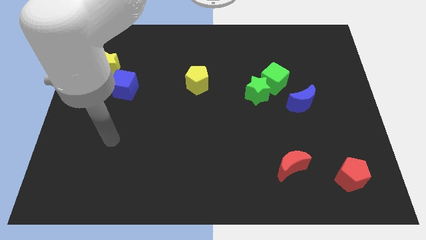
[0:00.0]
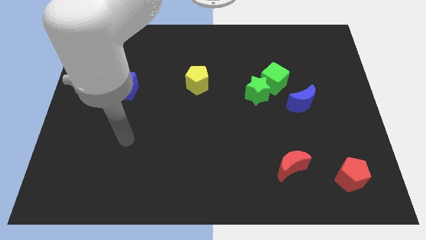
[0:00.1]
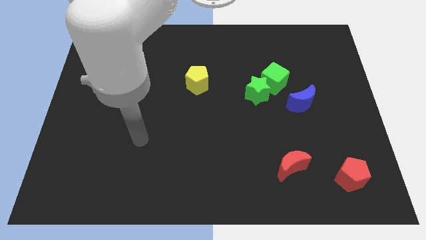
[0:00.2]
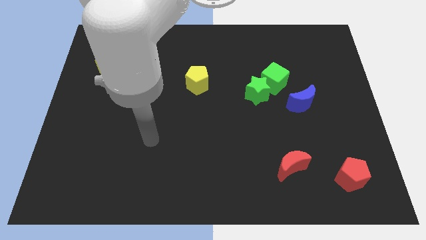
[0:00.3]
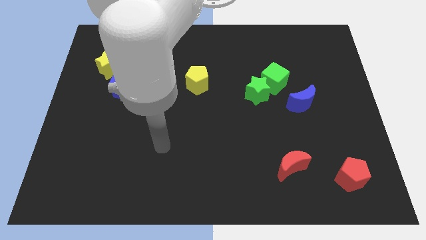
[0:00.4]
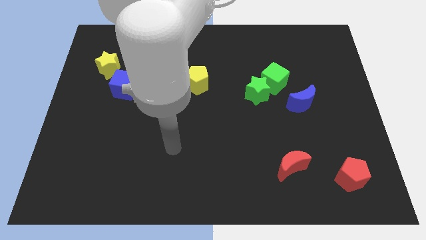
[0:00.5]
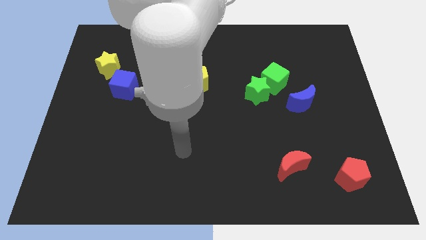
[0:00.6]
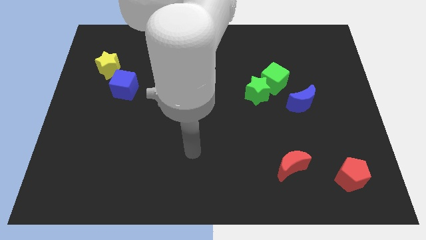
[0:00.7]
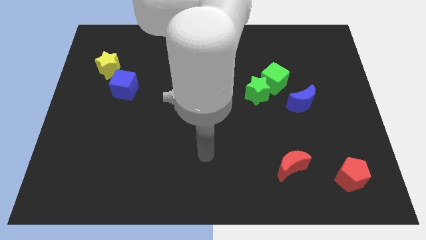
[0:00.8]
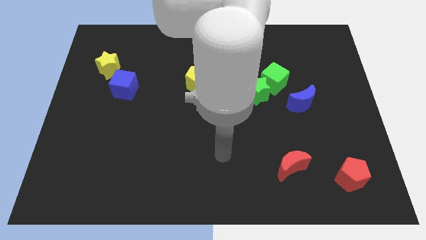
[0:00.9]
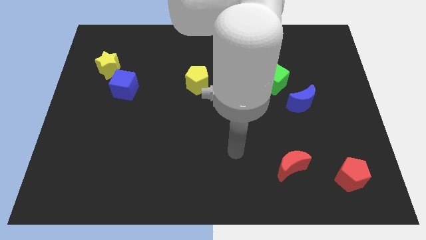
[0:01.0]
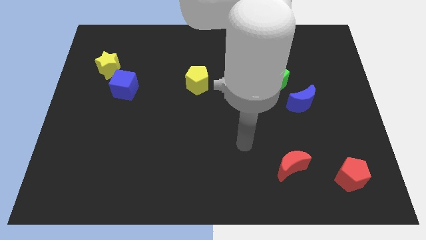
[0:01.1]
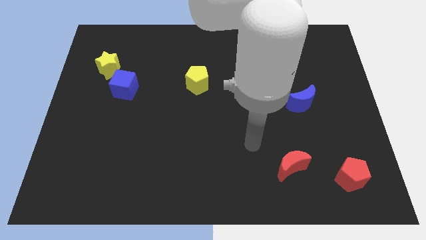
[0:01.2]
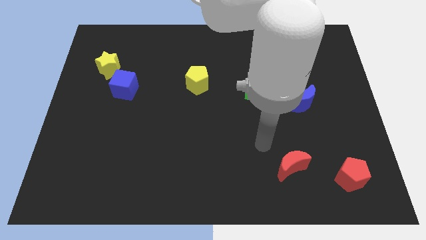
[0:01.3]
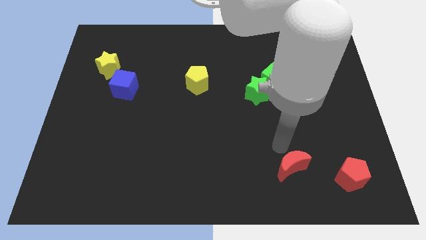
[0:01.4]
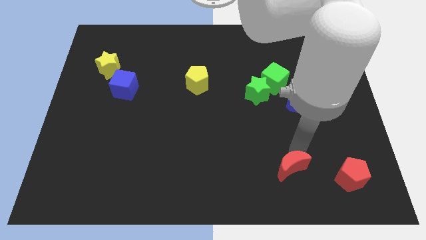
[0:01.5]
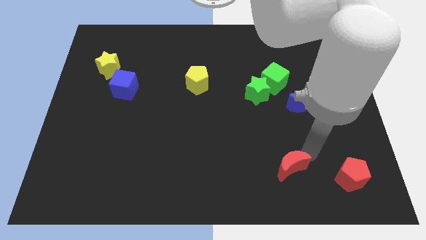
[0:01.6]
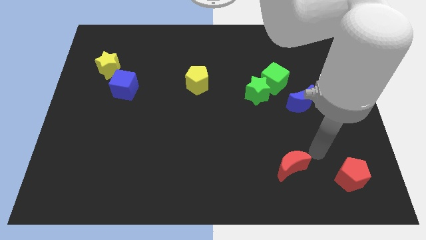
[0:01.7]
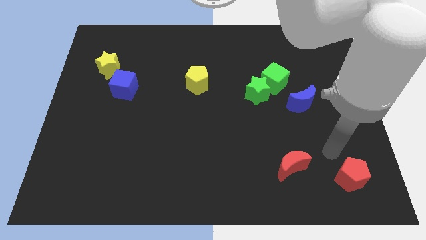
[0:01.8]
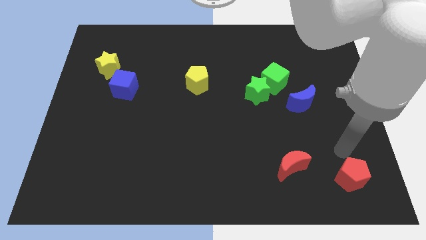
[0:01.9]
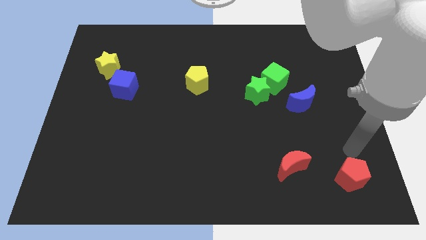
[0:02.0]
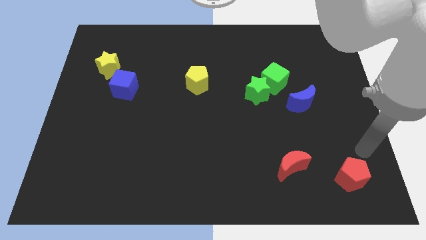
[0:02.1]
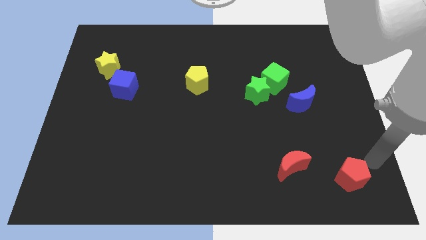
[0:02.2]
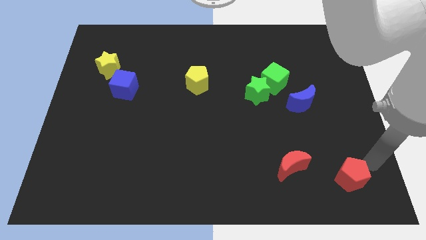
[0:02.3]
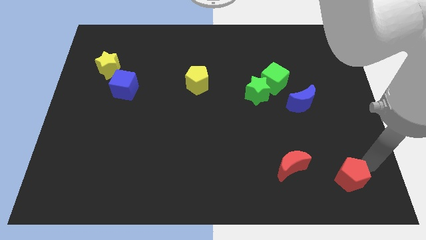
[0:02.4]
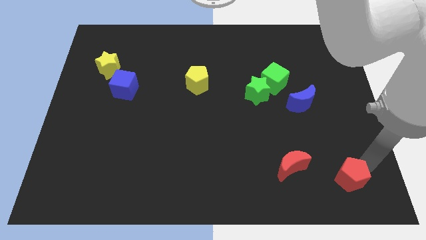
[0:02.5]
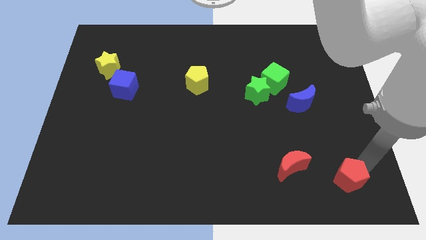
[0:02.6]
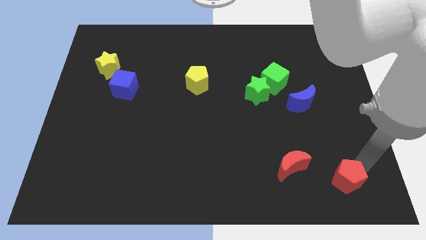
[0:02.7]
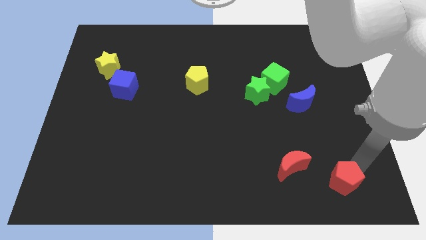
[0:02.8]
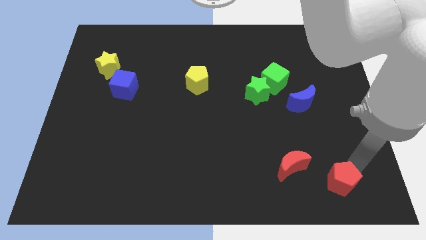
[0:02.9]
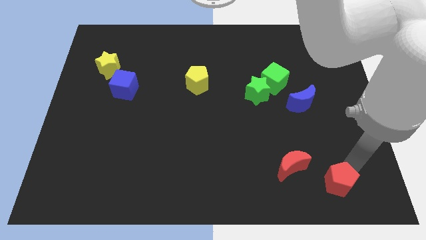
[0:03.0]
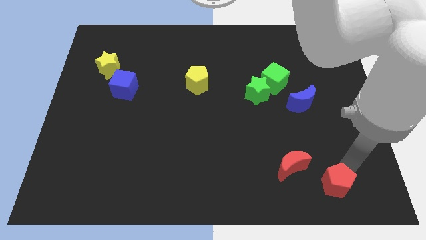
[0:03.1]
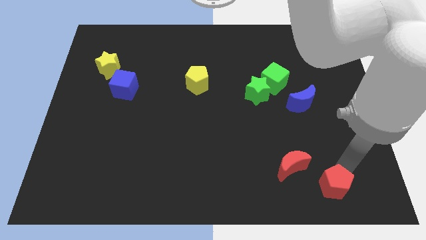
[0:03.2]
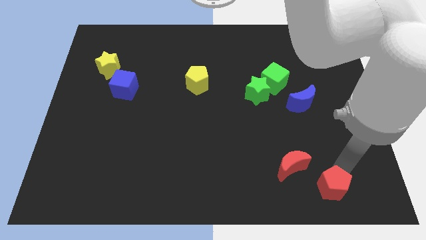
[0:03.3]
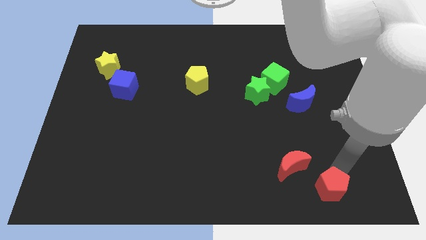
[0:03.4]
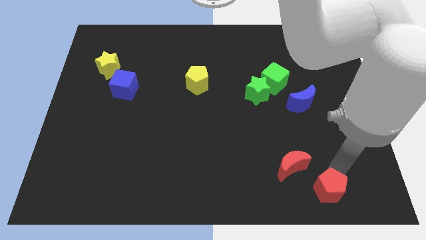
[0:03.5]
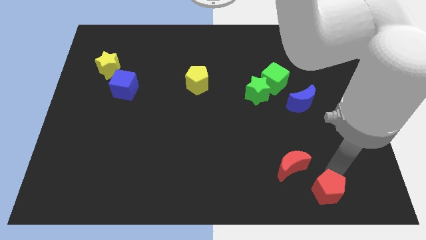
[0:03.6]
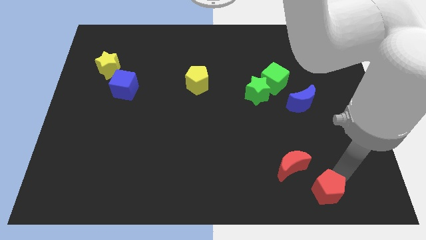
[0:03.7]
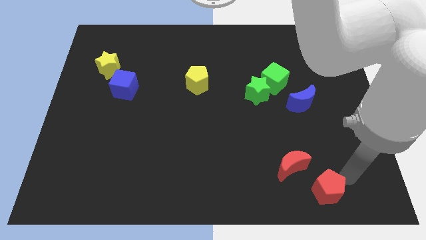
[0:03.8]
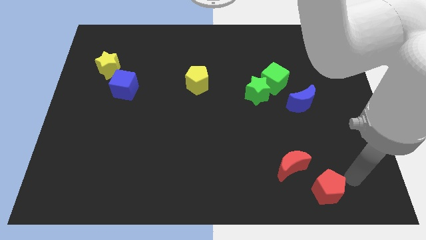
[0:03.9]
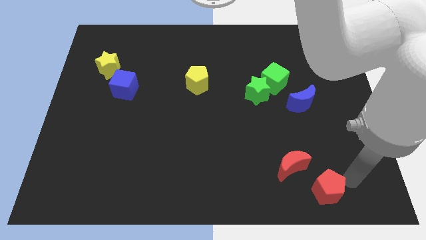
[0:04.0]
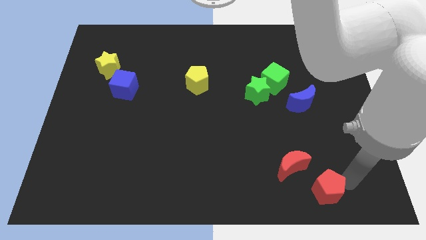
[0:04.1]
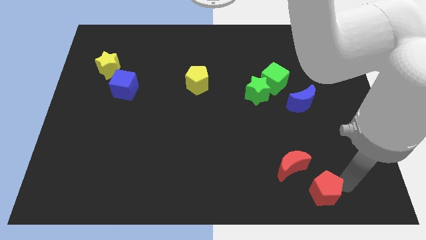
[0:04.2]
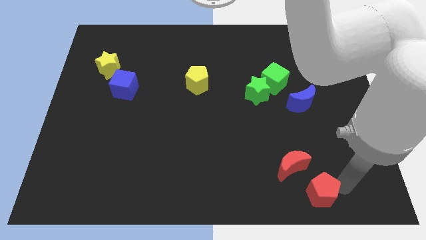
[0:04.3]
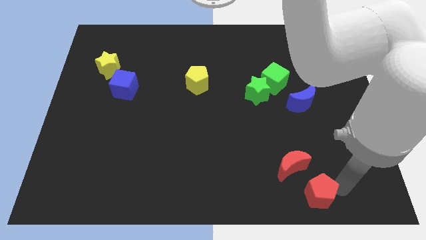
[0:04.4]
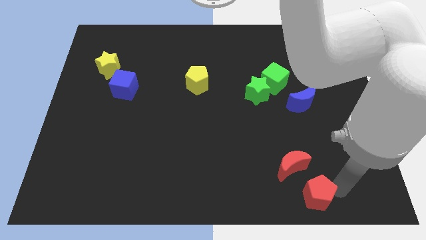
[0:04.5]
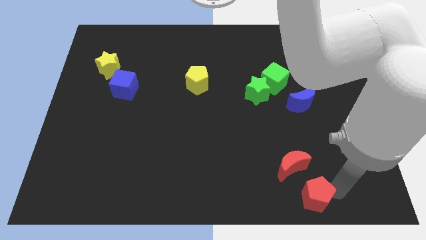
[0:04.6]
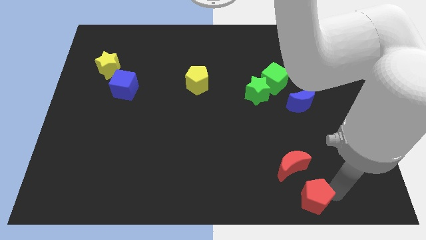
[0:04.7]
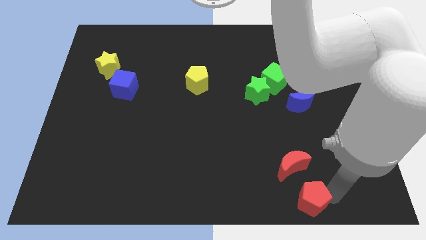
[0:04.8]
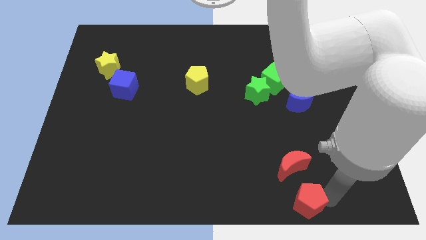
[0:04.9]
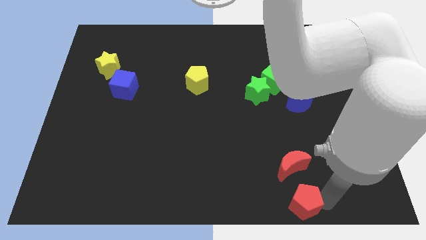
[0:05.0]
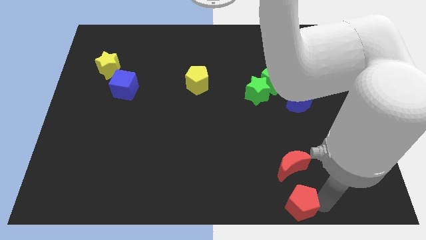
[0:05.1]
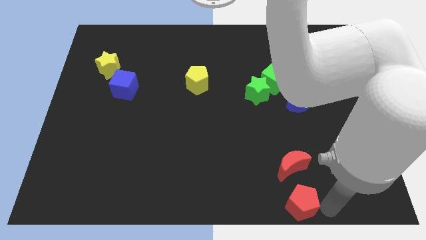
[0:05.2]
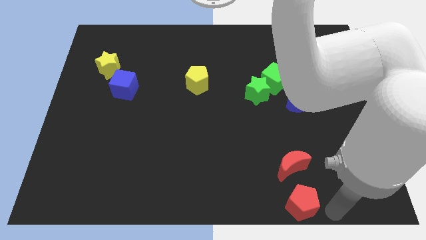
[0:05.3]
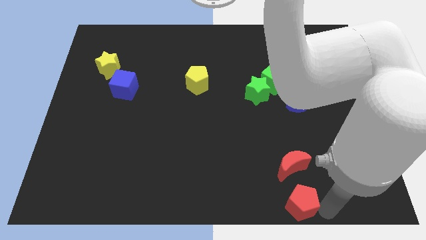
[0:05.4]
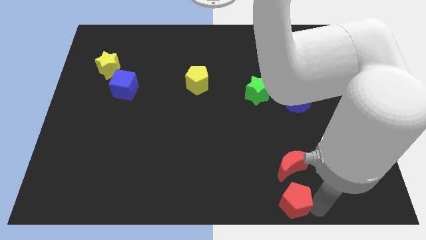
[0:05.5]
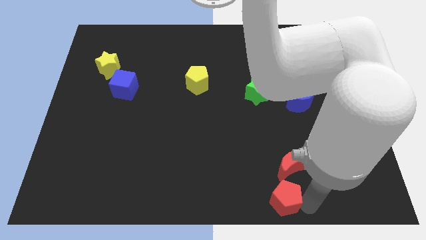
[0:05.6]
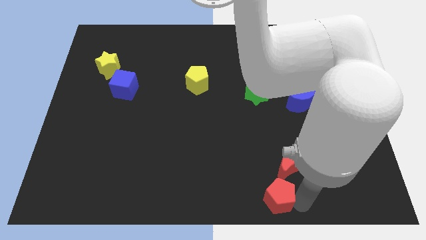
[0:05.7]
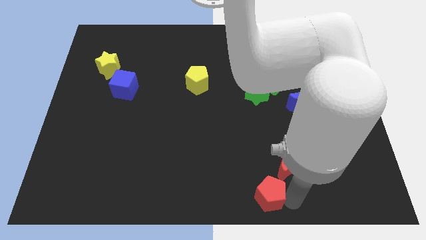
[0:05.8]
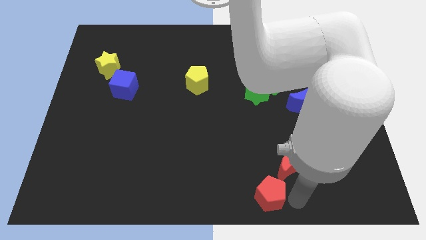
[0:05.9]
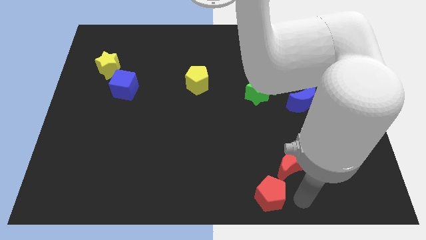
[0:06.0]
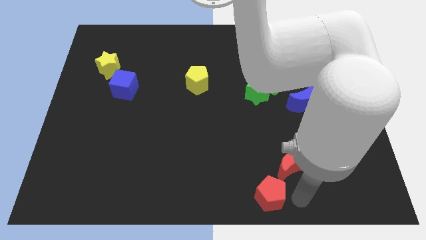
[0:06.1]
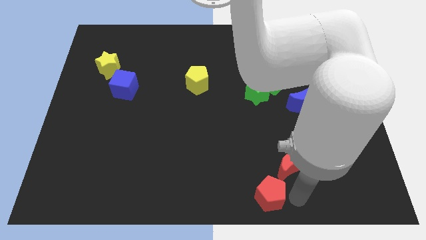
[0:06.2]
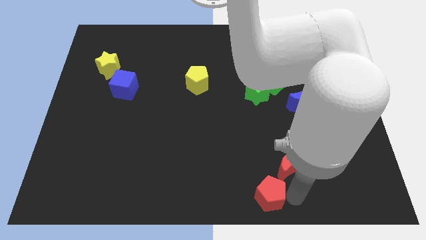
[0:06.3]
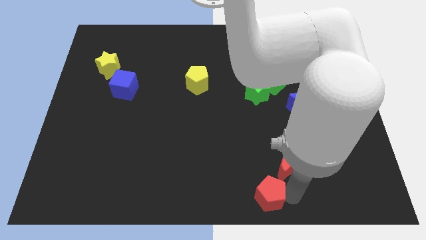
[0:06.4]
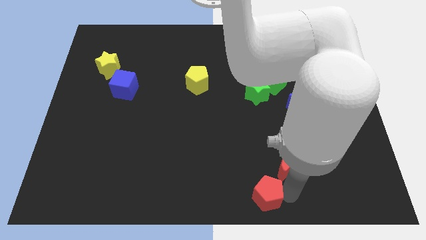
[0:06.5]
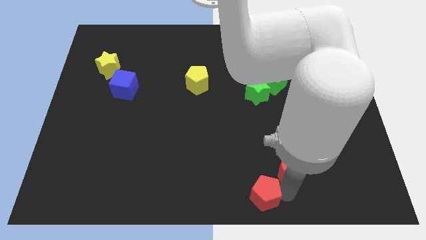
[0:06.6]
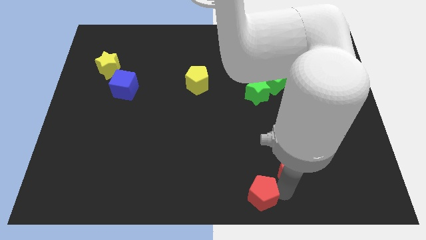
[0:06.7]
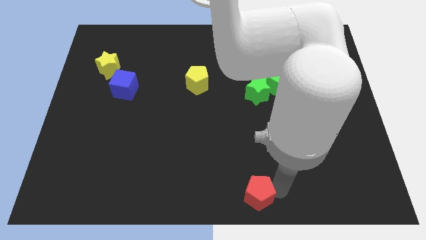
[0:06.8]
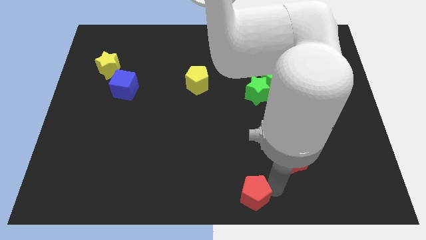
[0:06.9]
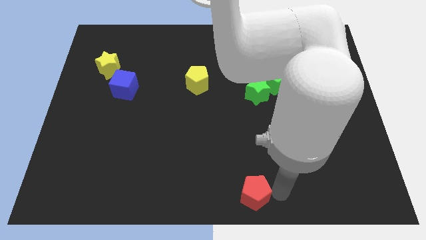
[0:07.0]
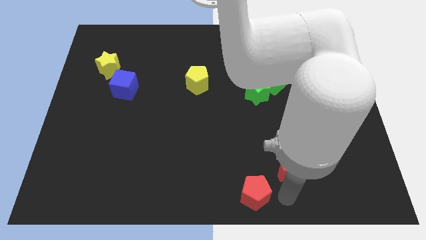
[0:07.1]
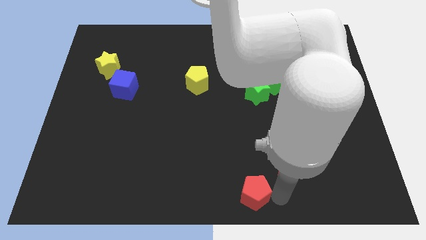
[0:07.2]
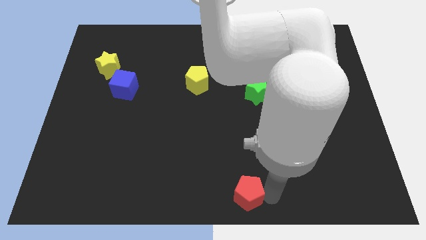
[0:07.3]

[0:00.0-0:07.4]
slide the red pentagon left

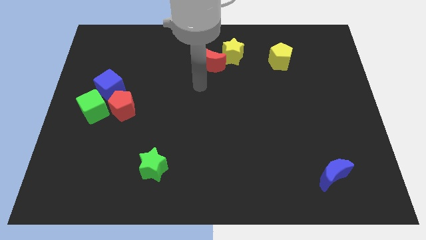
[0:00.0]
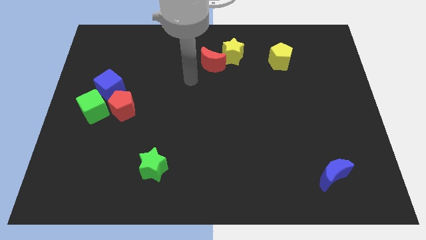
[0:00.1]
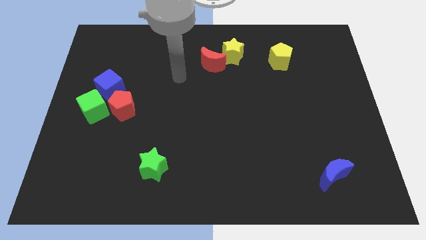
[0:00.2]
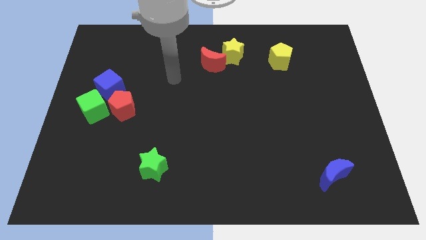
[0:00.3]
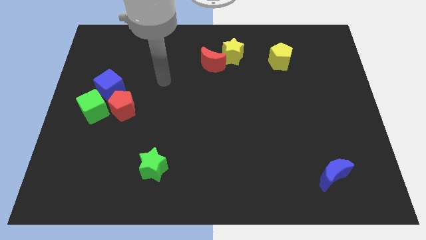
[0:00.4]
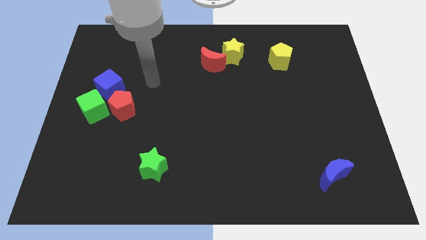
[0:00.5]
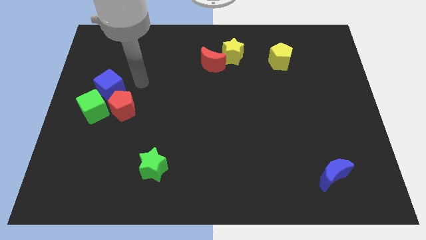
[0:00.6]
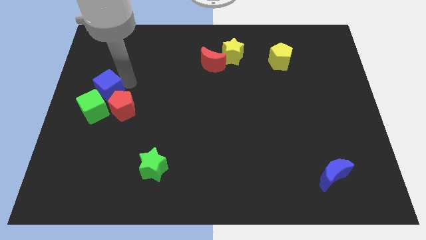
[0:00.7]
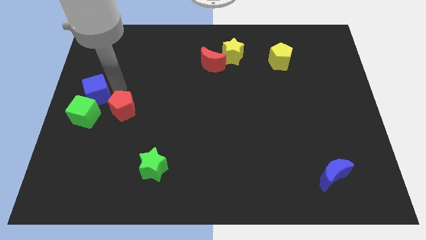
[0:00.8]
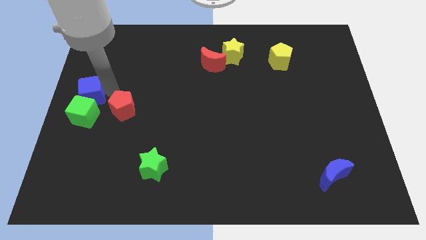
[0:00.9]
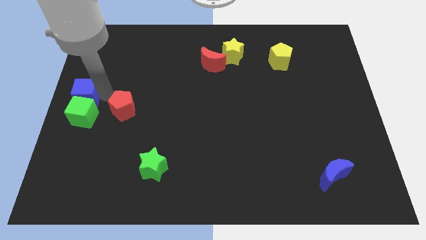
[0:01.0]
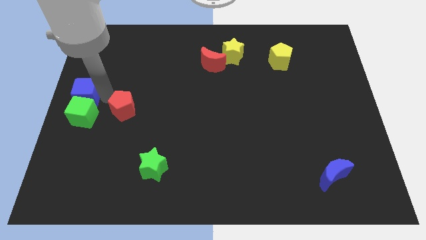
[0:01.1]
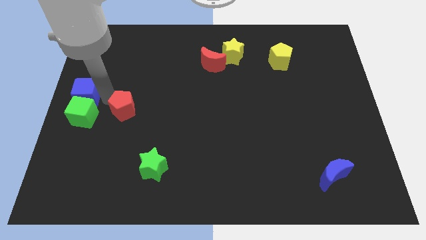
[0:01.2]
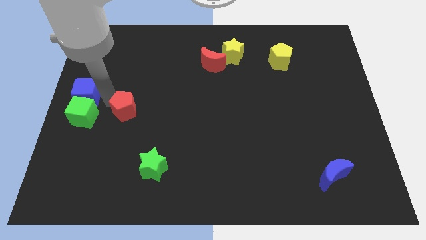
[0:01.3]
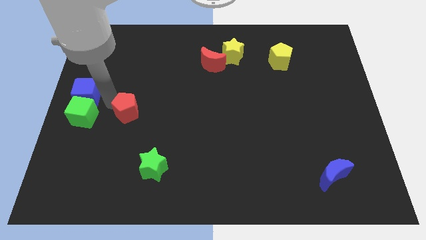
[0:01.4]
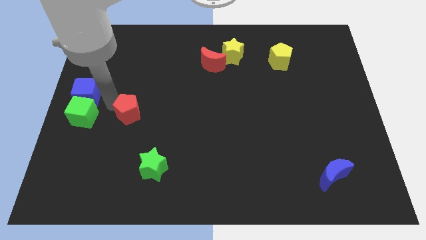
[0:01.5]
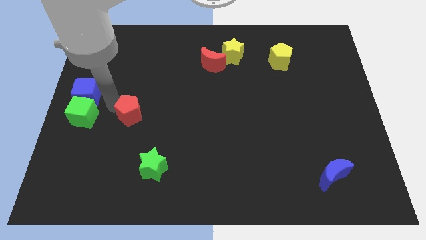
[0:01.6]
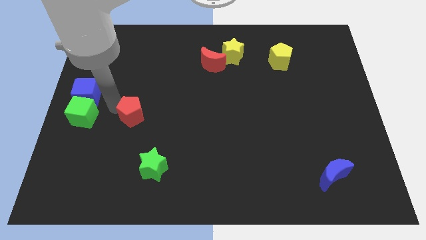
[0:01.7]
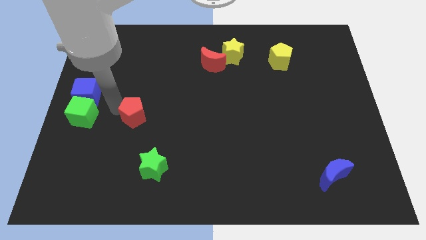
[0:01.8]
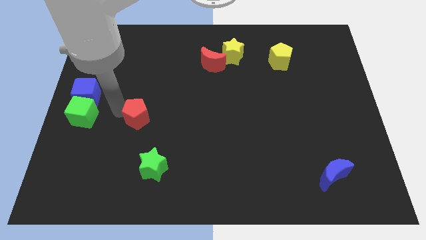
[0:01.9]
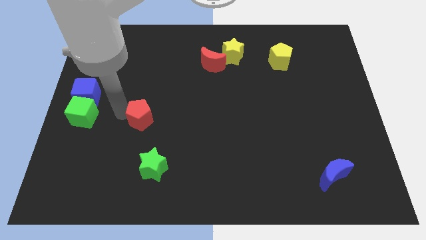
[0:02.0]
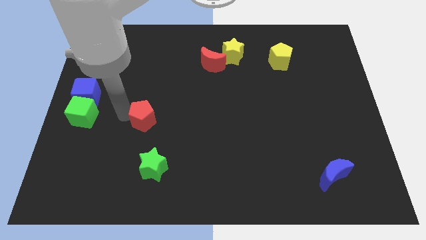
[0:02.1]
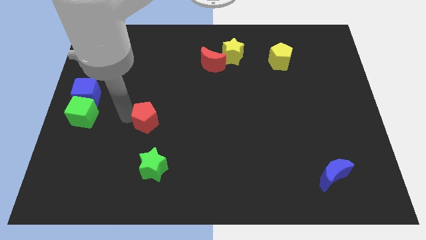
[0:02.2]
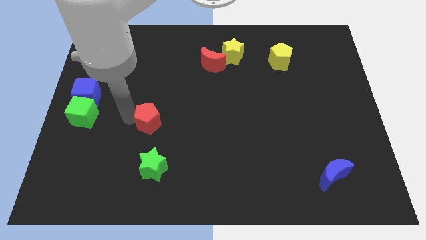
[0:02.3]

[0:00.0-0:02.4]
slightly move the red pentagon diagonally down and right
